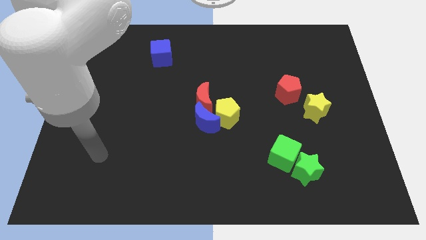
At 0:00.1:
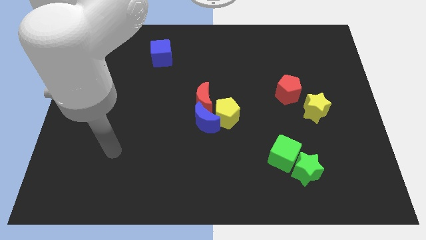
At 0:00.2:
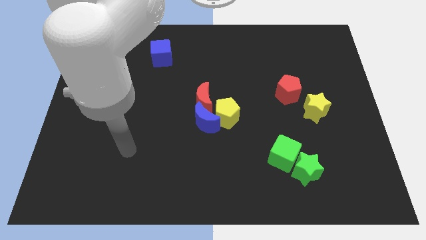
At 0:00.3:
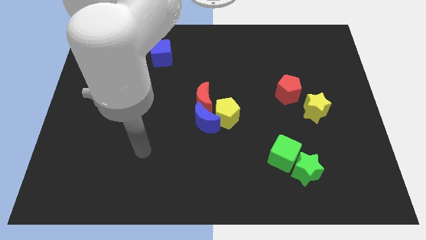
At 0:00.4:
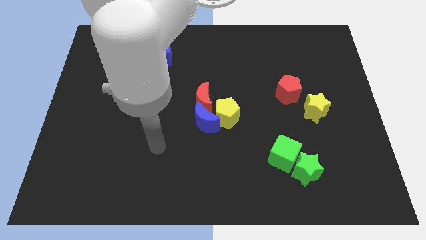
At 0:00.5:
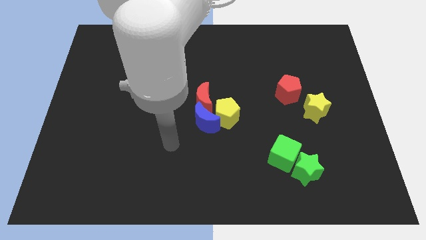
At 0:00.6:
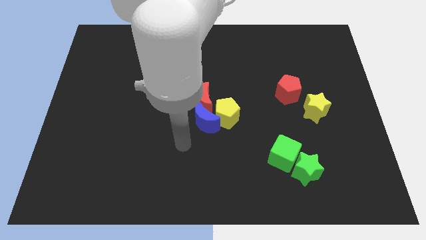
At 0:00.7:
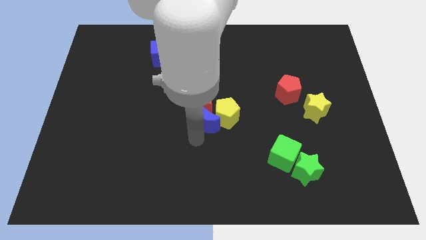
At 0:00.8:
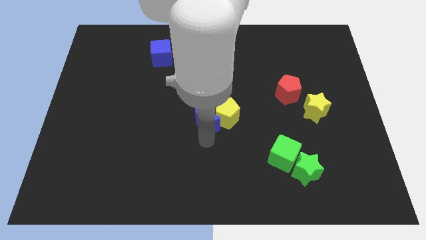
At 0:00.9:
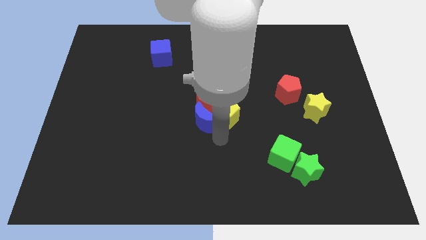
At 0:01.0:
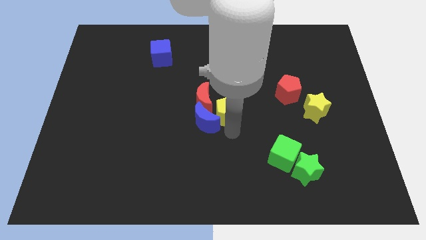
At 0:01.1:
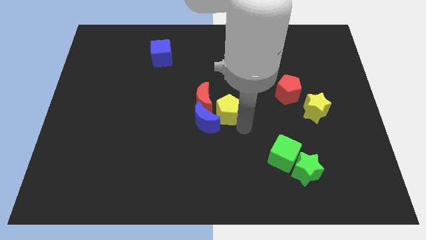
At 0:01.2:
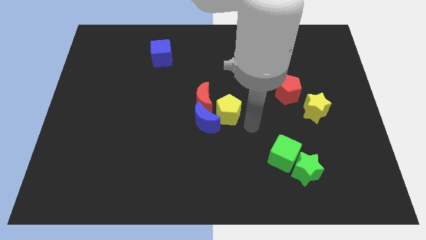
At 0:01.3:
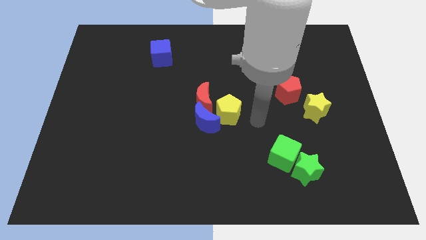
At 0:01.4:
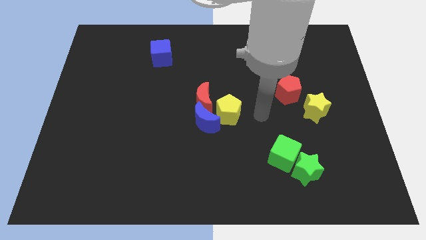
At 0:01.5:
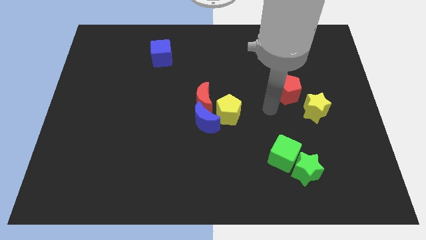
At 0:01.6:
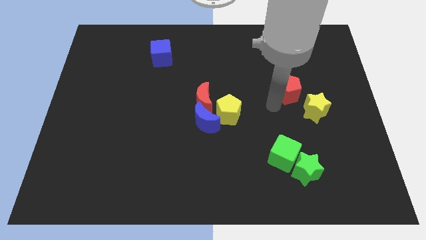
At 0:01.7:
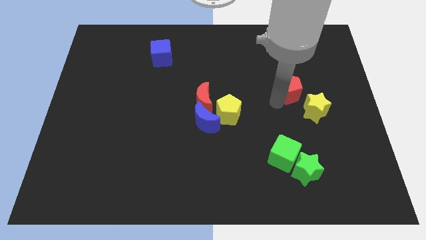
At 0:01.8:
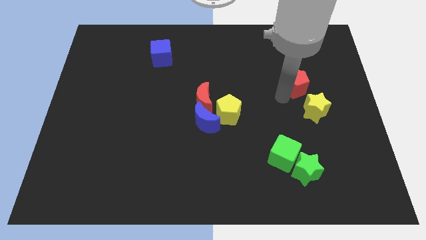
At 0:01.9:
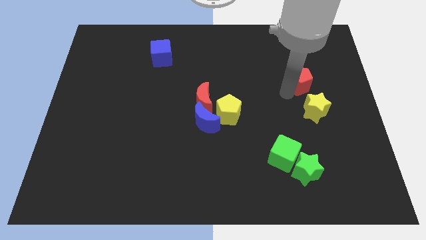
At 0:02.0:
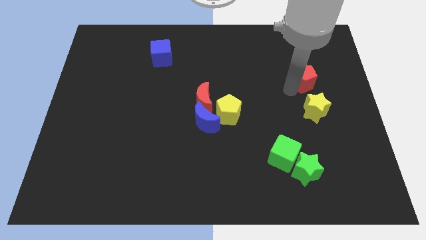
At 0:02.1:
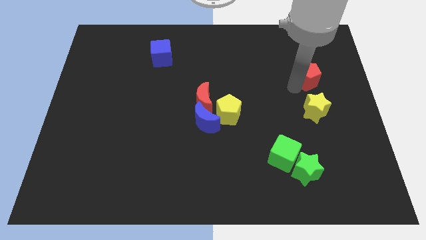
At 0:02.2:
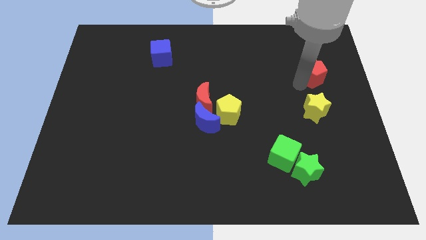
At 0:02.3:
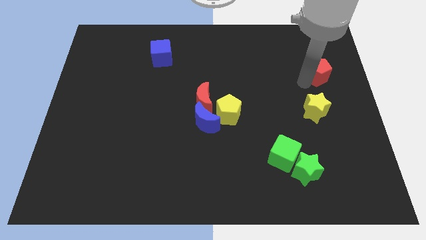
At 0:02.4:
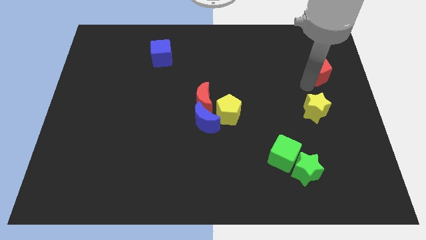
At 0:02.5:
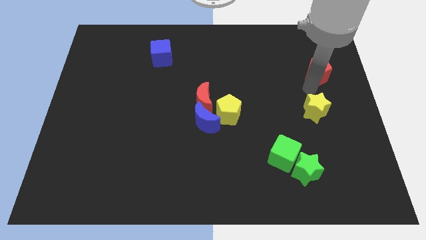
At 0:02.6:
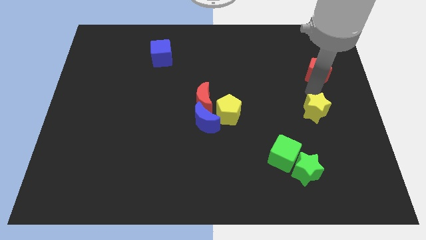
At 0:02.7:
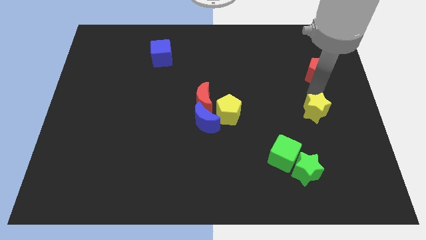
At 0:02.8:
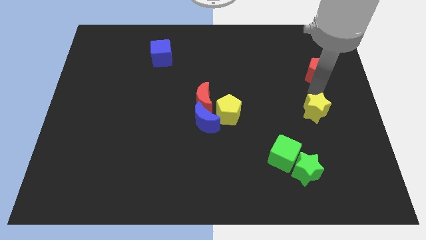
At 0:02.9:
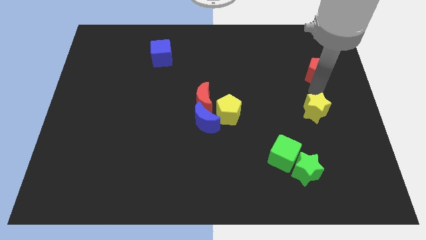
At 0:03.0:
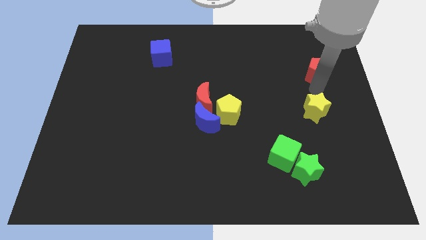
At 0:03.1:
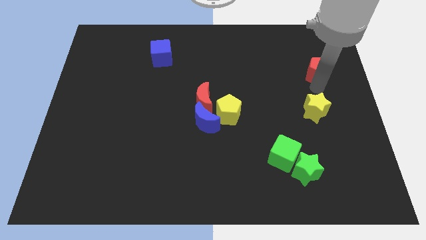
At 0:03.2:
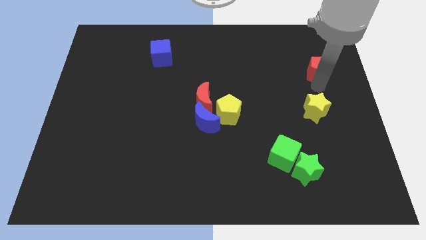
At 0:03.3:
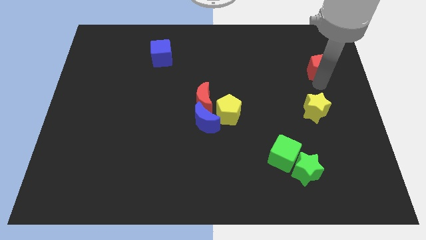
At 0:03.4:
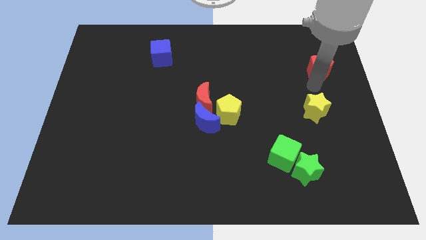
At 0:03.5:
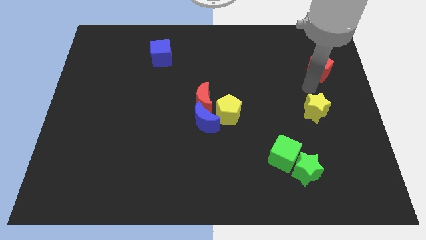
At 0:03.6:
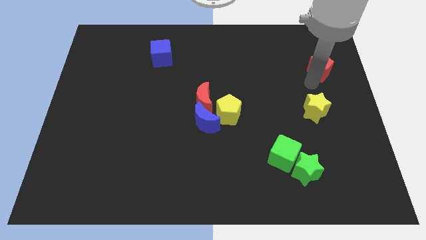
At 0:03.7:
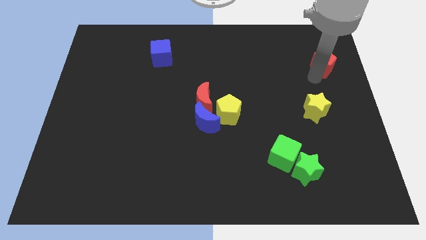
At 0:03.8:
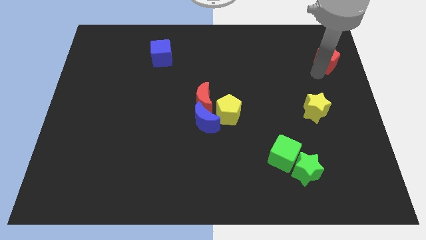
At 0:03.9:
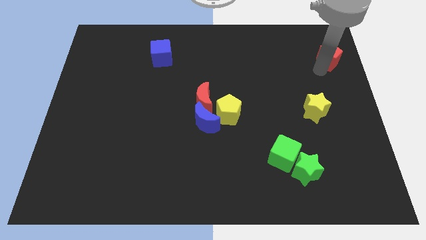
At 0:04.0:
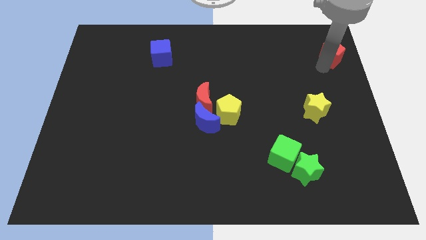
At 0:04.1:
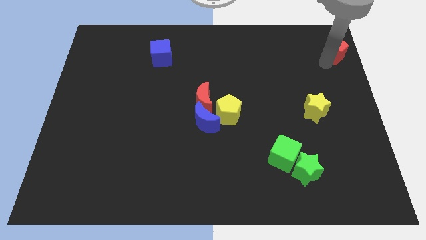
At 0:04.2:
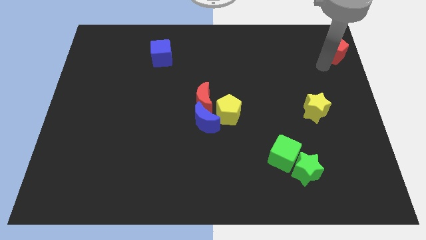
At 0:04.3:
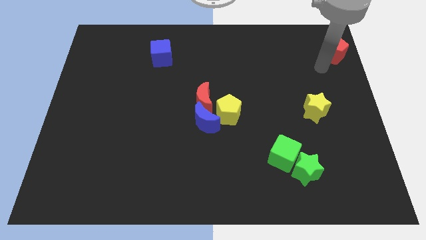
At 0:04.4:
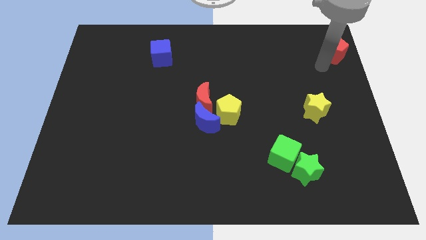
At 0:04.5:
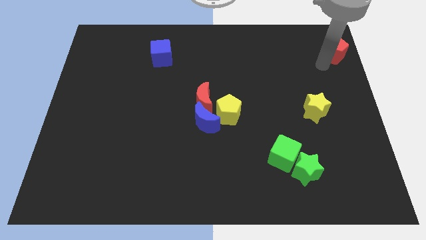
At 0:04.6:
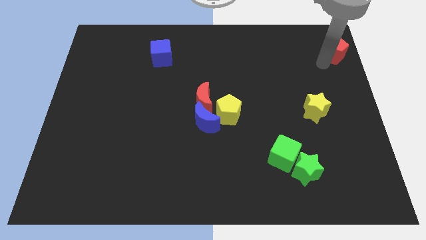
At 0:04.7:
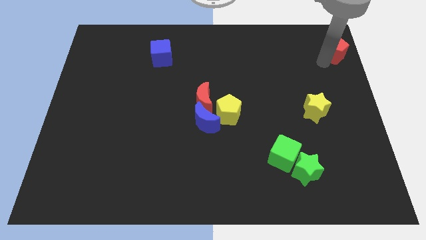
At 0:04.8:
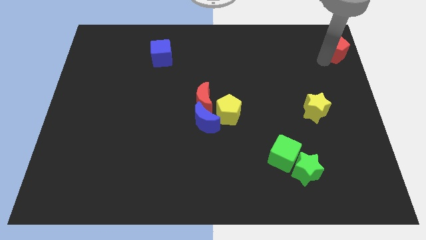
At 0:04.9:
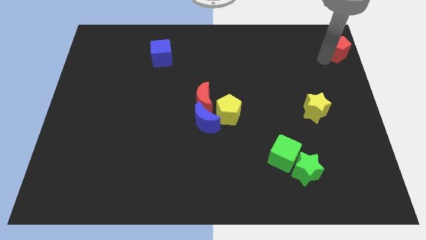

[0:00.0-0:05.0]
put the red pentagon to the top right

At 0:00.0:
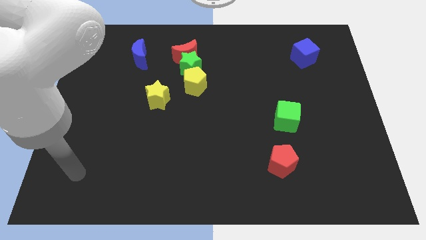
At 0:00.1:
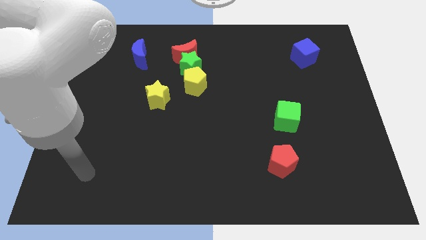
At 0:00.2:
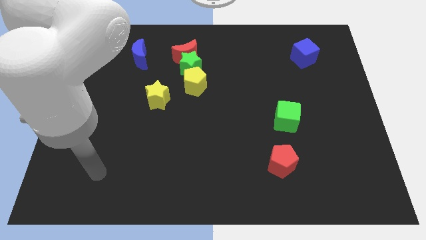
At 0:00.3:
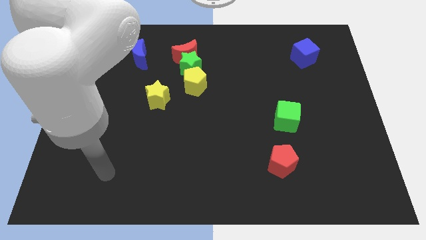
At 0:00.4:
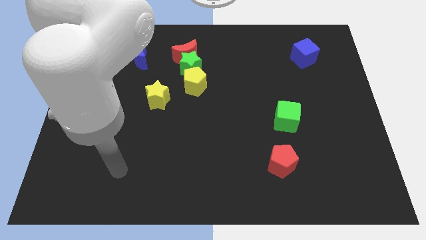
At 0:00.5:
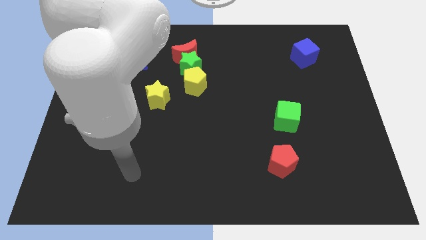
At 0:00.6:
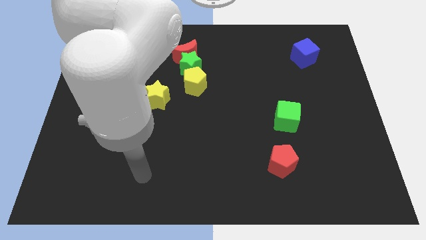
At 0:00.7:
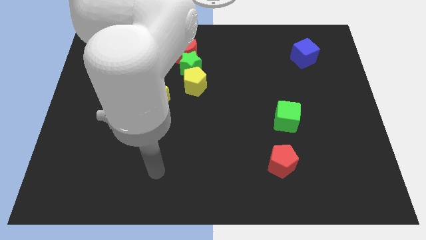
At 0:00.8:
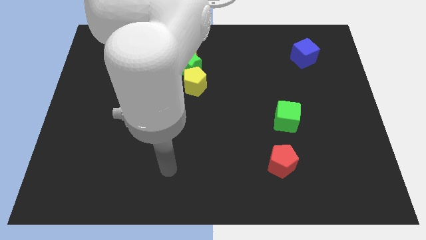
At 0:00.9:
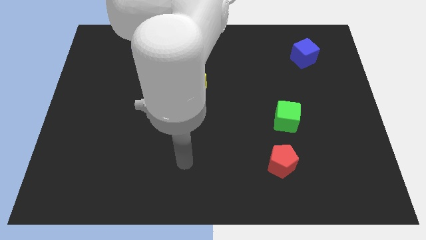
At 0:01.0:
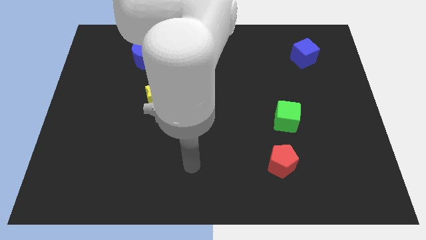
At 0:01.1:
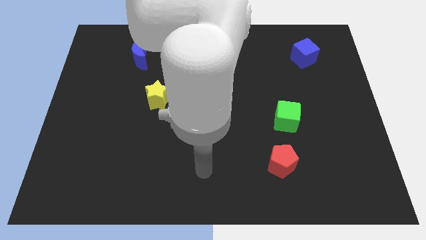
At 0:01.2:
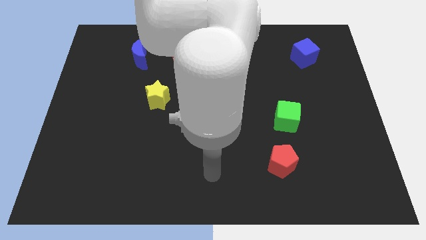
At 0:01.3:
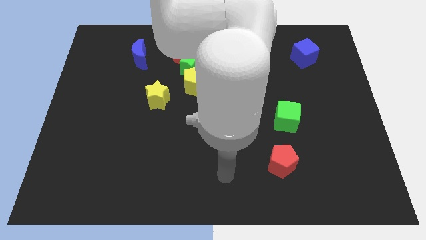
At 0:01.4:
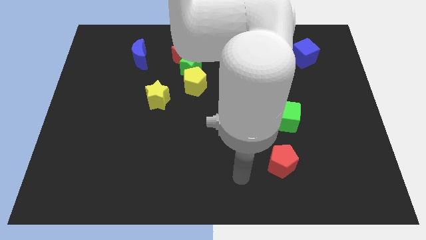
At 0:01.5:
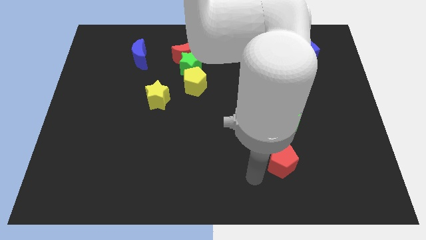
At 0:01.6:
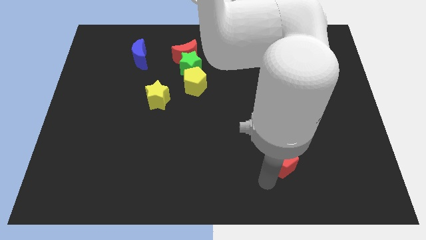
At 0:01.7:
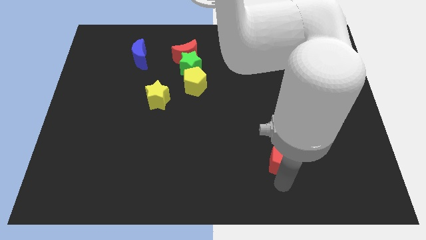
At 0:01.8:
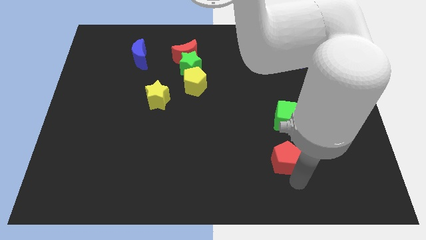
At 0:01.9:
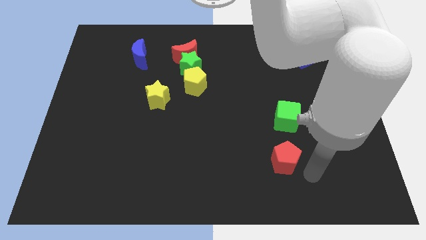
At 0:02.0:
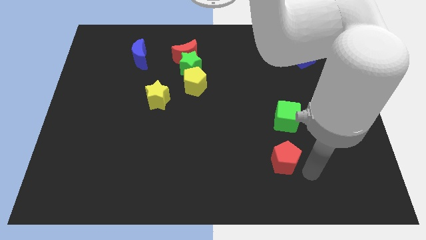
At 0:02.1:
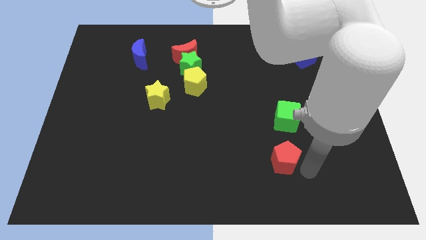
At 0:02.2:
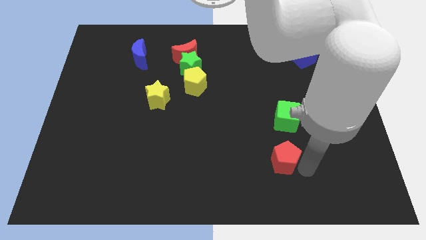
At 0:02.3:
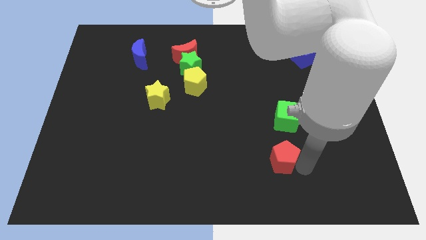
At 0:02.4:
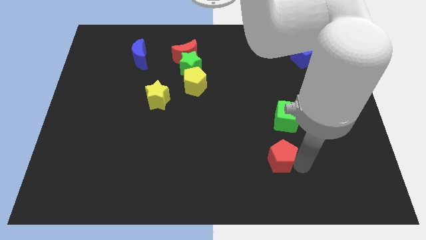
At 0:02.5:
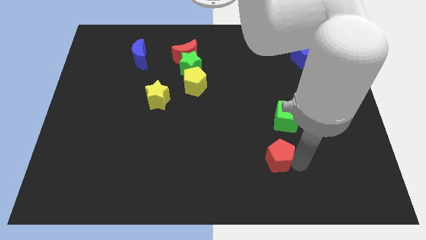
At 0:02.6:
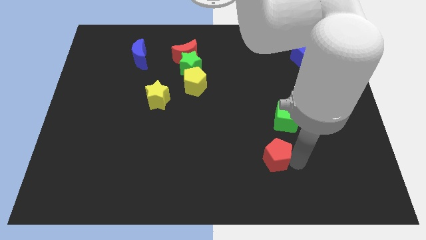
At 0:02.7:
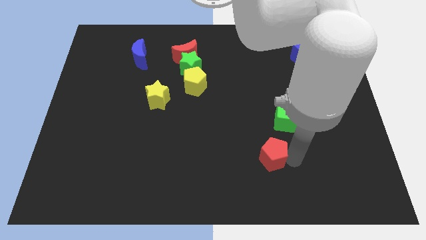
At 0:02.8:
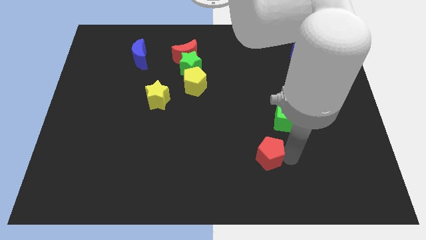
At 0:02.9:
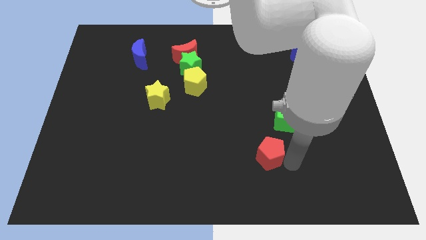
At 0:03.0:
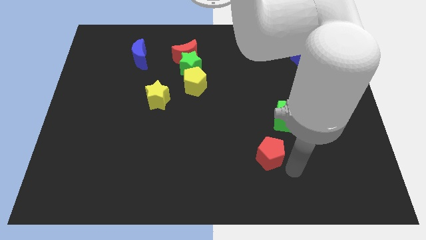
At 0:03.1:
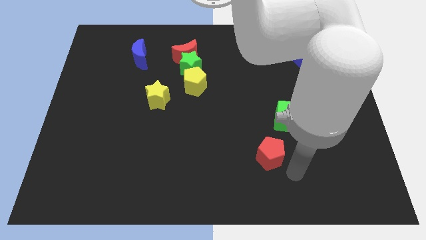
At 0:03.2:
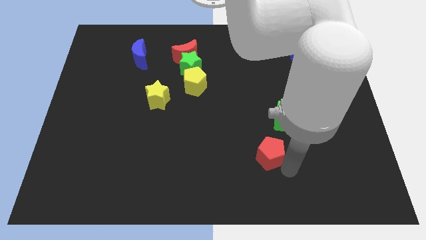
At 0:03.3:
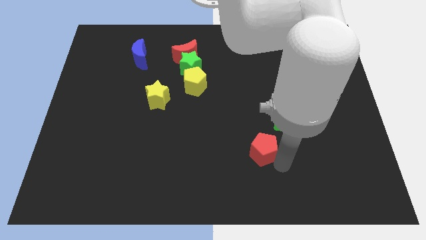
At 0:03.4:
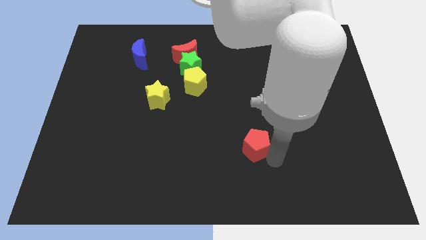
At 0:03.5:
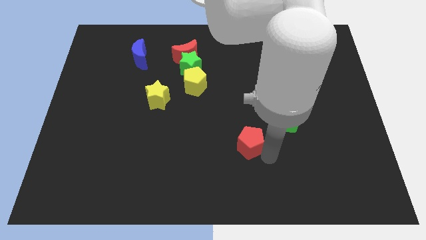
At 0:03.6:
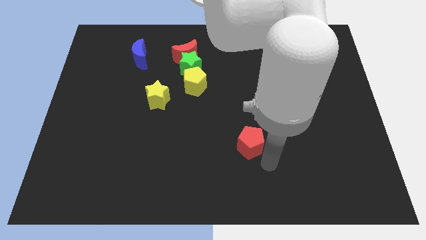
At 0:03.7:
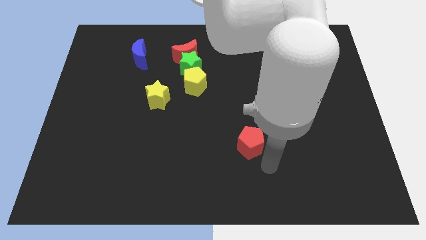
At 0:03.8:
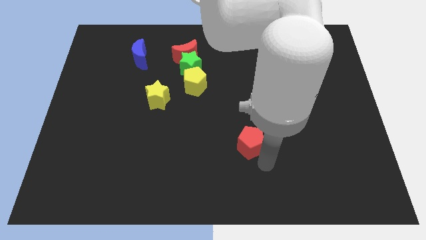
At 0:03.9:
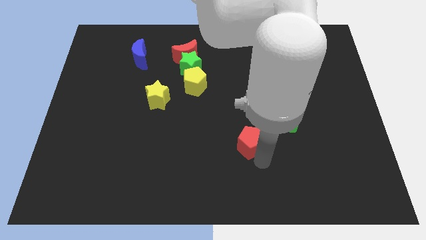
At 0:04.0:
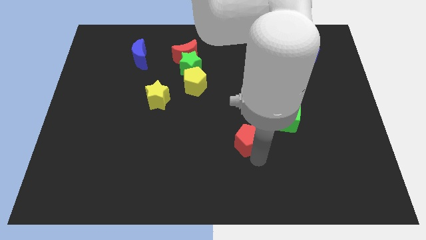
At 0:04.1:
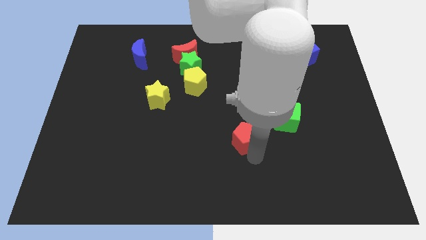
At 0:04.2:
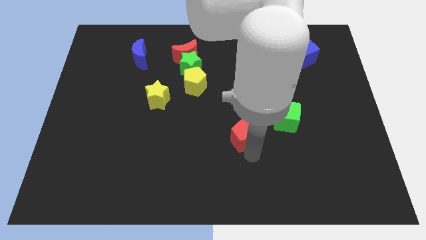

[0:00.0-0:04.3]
push the red pentagon to the center of the board
